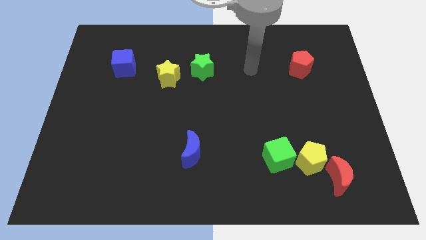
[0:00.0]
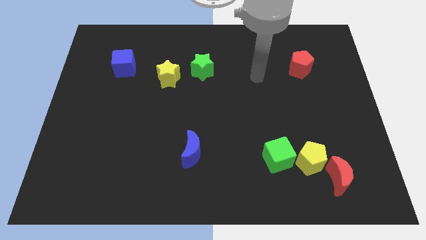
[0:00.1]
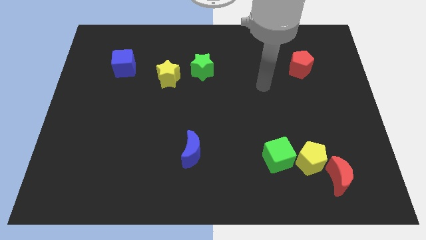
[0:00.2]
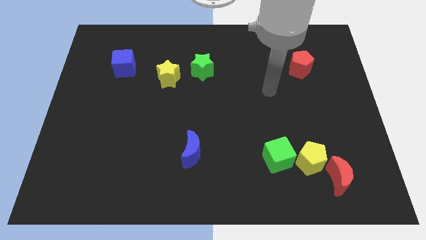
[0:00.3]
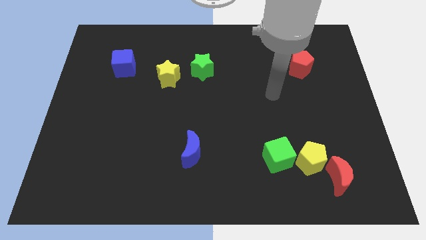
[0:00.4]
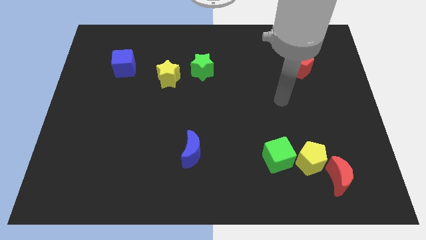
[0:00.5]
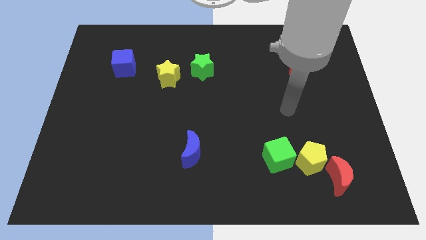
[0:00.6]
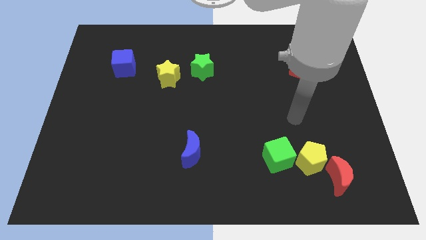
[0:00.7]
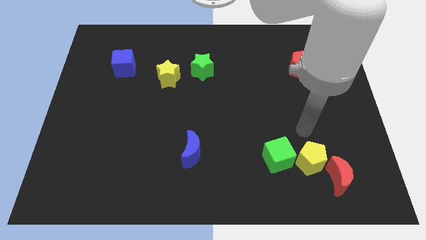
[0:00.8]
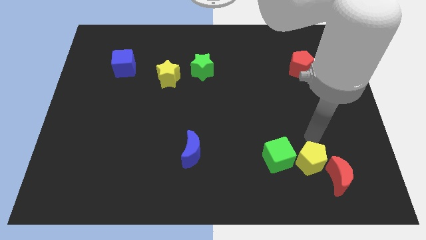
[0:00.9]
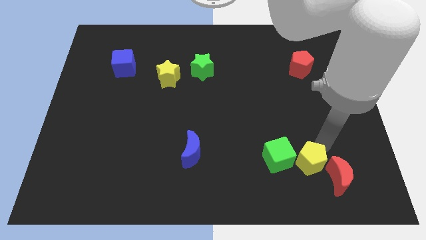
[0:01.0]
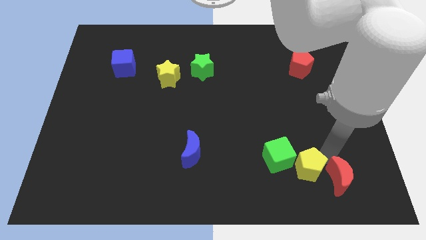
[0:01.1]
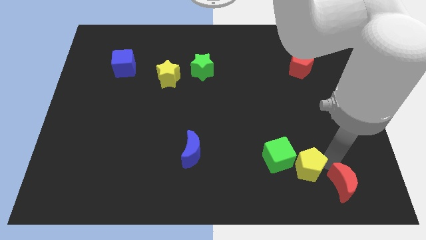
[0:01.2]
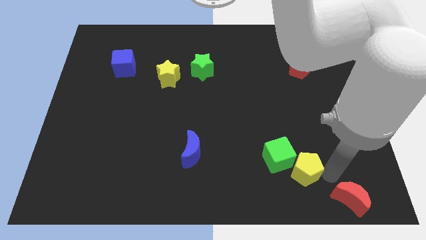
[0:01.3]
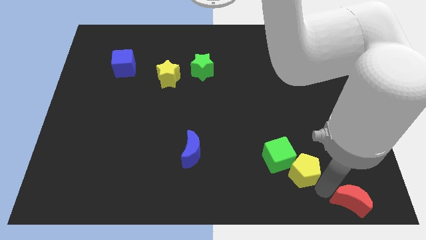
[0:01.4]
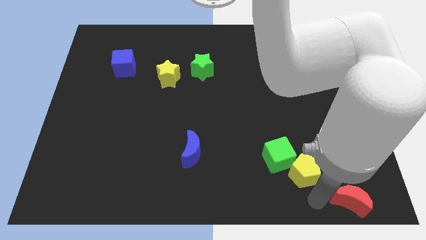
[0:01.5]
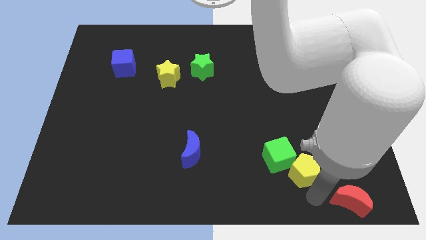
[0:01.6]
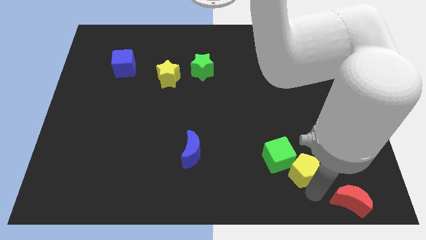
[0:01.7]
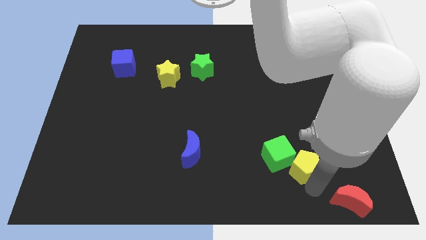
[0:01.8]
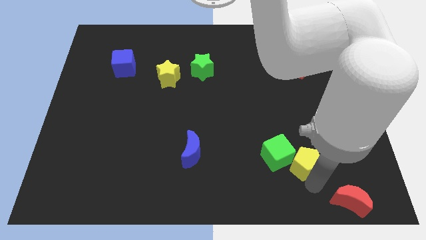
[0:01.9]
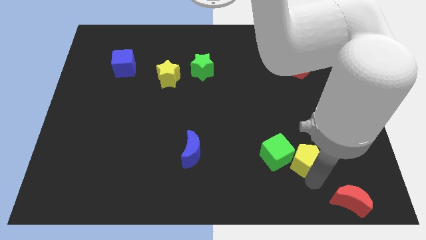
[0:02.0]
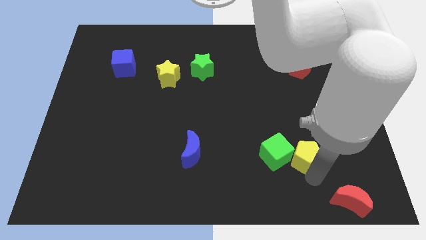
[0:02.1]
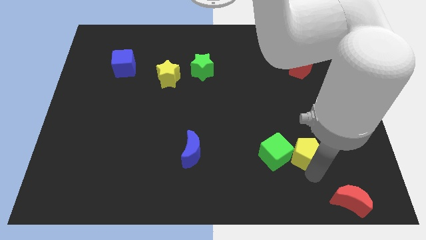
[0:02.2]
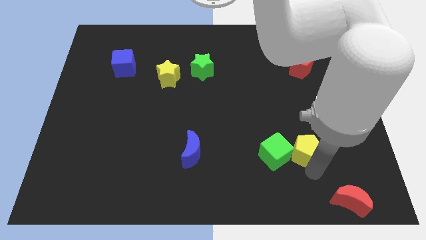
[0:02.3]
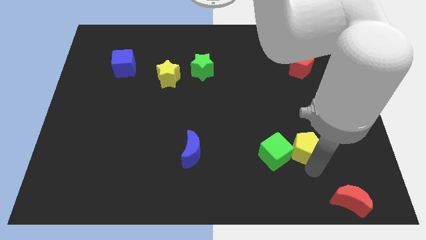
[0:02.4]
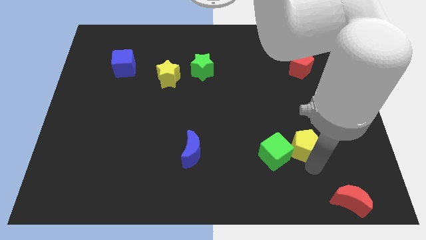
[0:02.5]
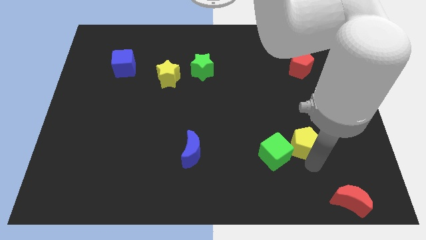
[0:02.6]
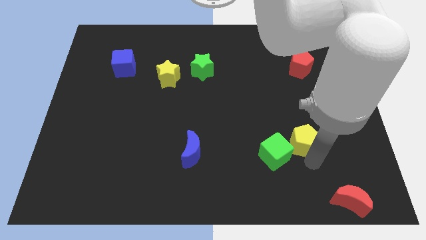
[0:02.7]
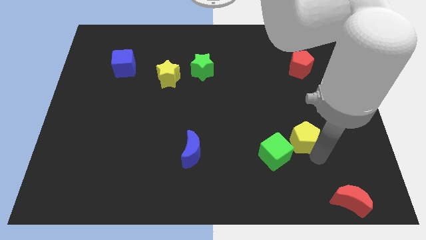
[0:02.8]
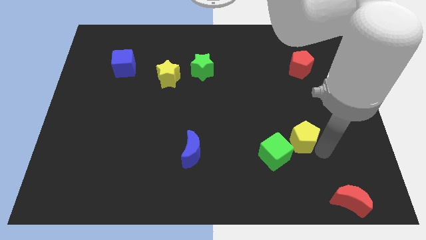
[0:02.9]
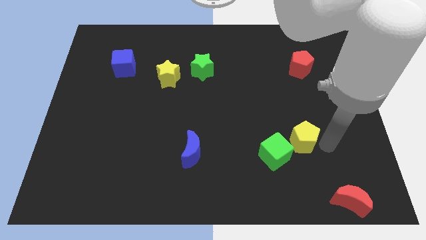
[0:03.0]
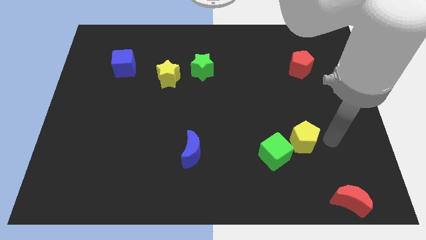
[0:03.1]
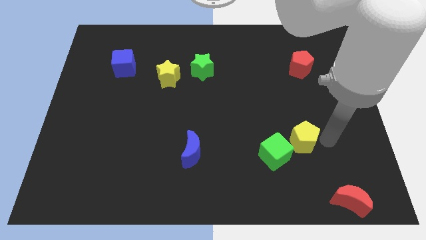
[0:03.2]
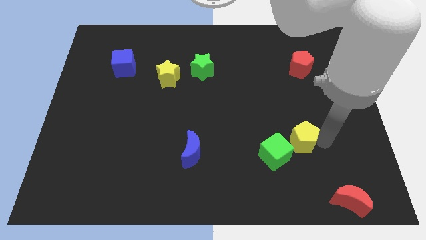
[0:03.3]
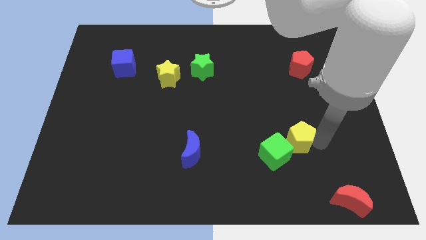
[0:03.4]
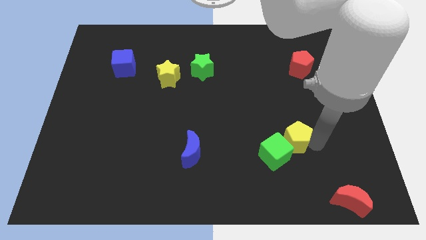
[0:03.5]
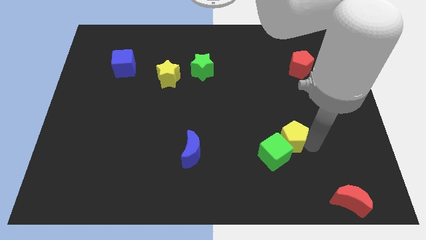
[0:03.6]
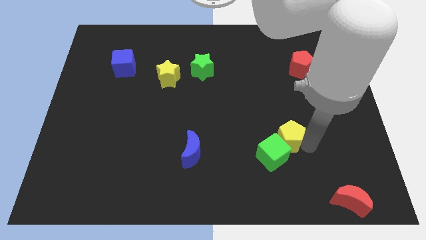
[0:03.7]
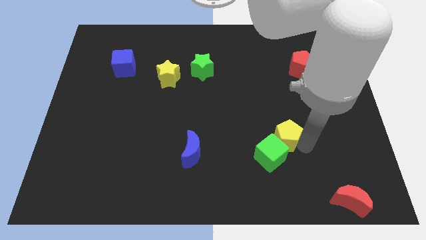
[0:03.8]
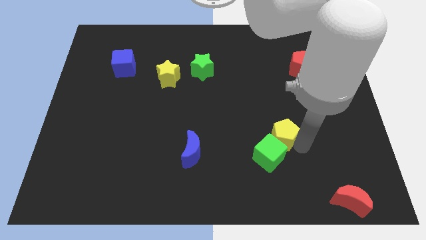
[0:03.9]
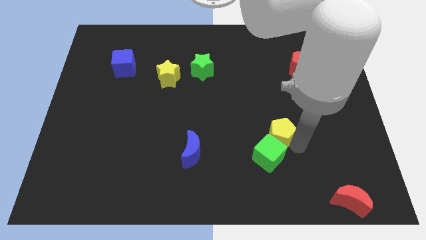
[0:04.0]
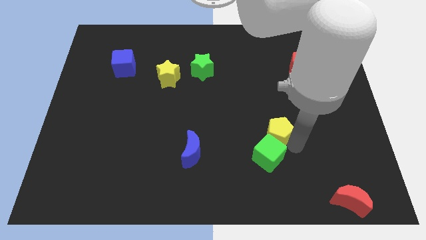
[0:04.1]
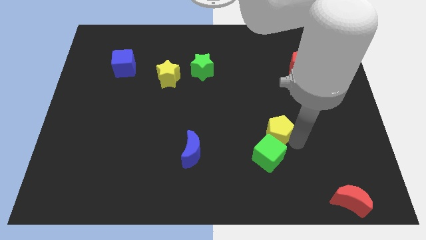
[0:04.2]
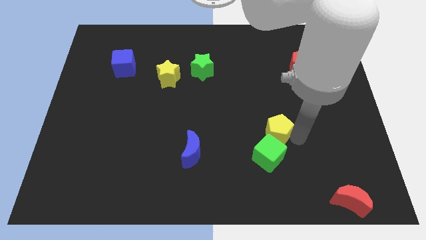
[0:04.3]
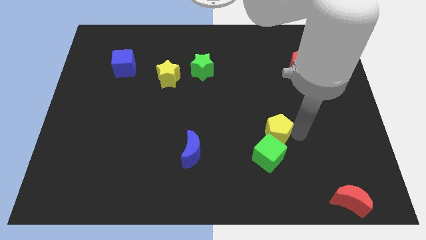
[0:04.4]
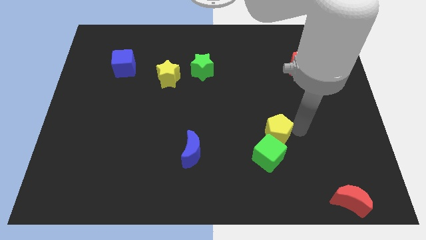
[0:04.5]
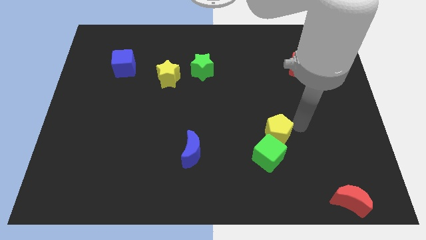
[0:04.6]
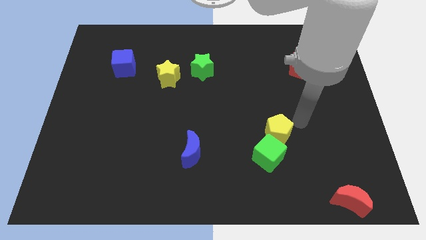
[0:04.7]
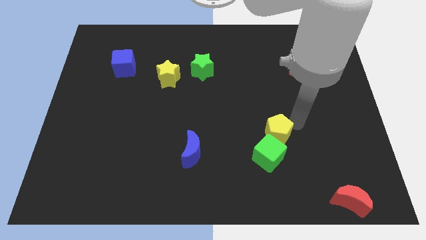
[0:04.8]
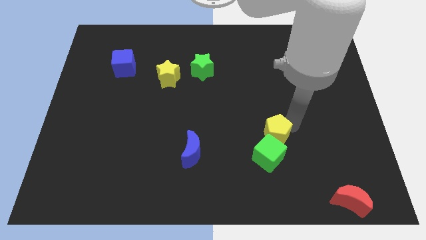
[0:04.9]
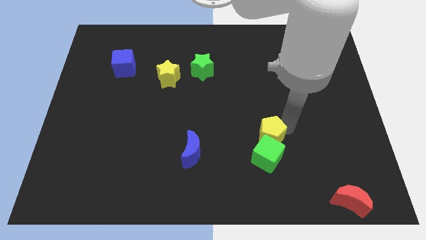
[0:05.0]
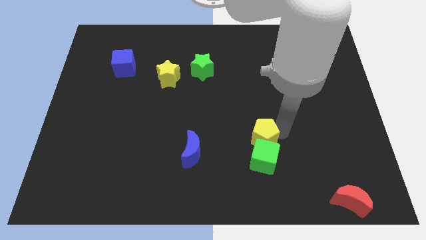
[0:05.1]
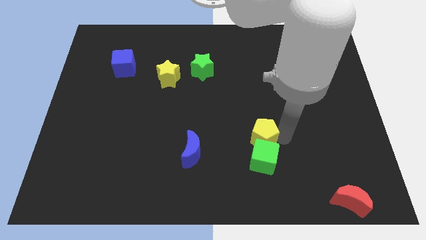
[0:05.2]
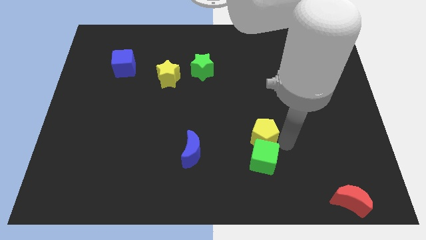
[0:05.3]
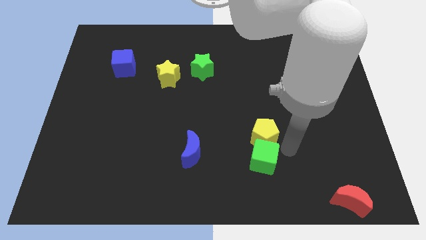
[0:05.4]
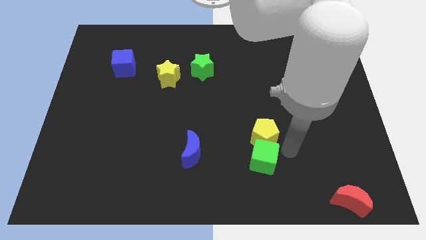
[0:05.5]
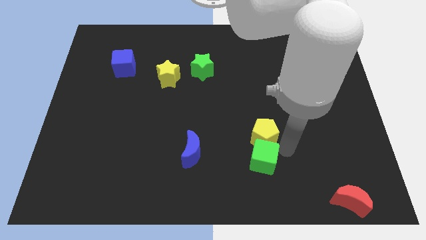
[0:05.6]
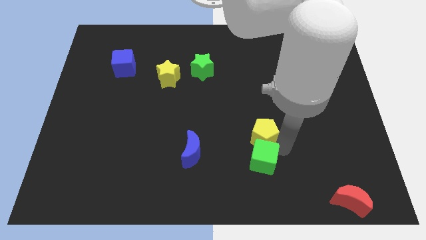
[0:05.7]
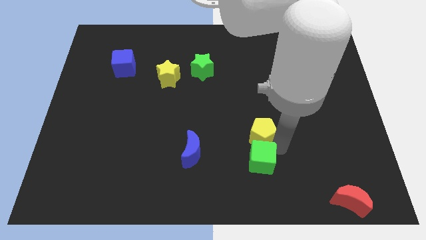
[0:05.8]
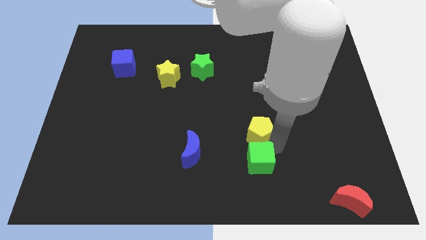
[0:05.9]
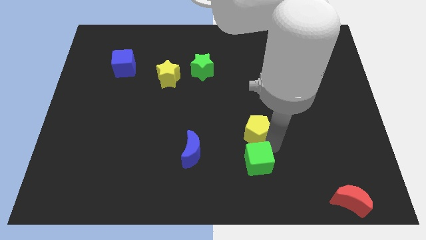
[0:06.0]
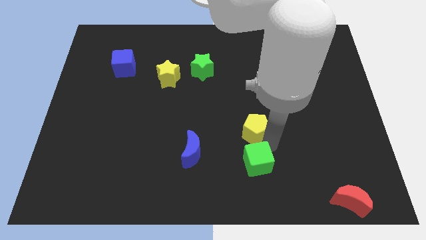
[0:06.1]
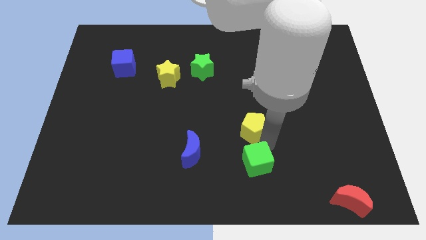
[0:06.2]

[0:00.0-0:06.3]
push the yellow pentagon to the middle
